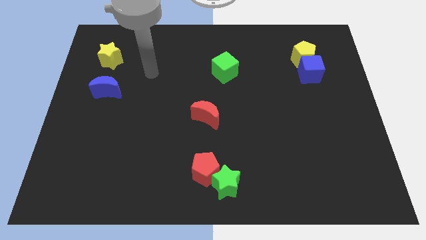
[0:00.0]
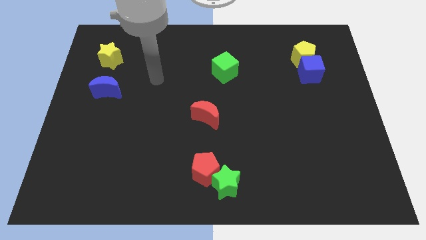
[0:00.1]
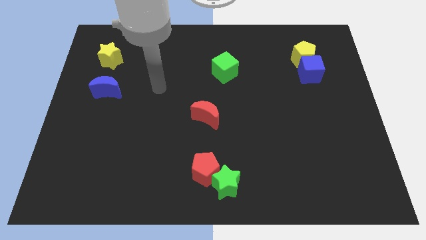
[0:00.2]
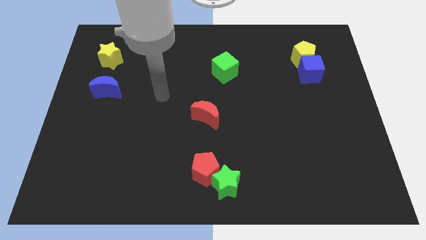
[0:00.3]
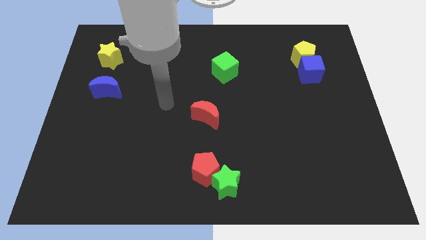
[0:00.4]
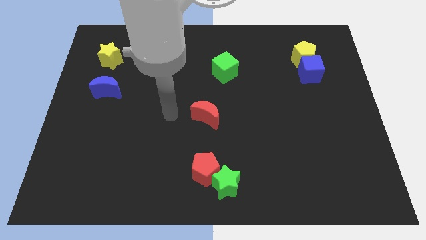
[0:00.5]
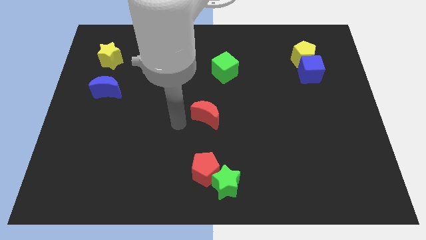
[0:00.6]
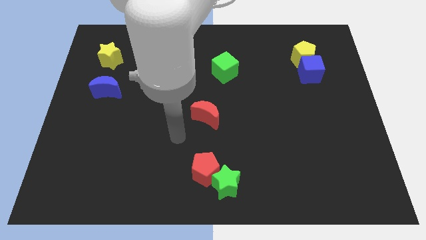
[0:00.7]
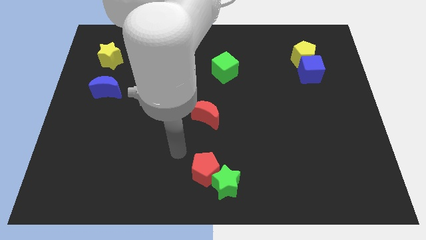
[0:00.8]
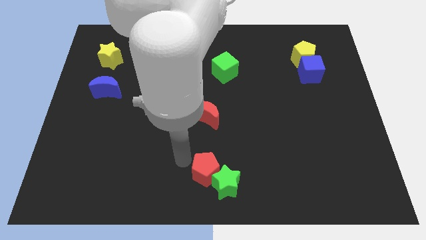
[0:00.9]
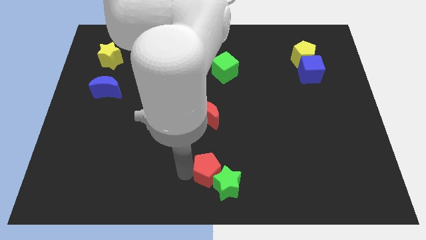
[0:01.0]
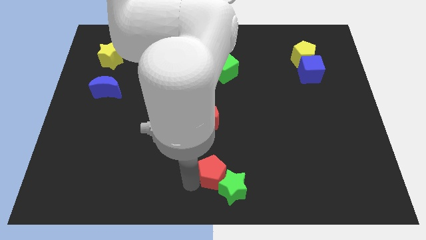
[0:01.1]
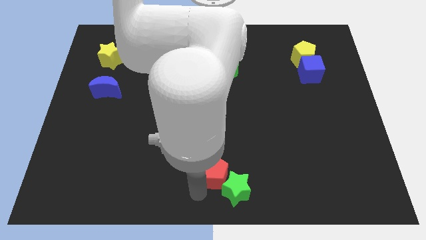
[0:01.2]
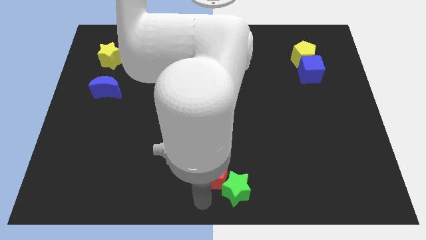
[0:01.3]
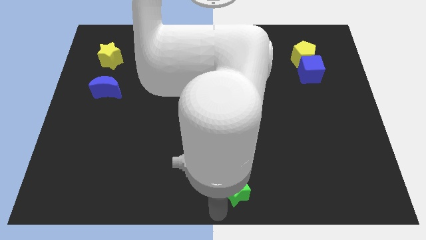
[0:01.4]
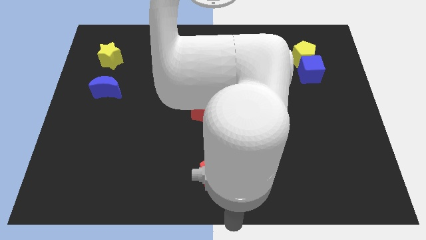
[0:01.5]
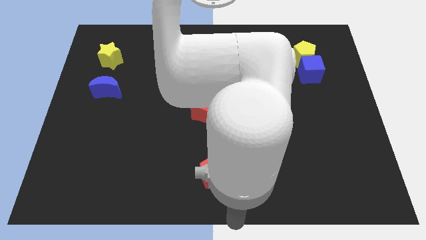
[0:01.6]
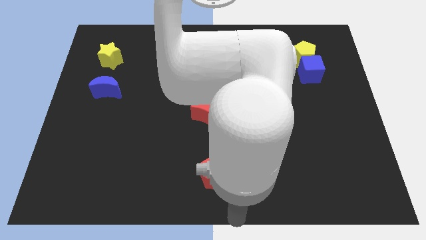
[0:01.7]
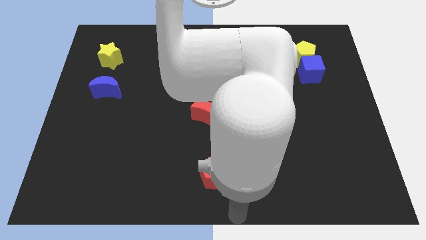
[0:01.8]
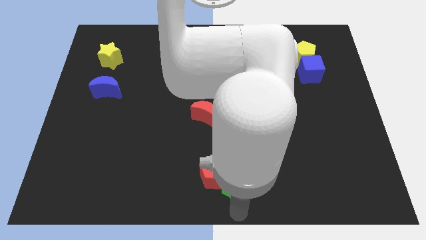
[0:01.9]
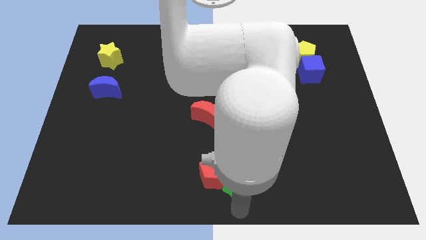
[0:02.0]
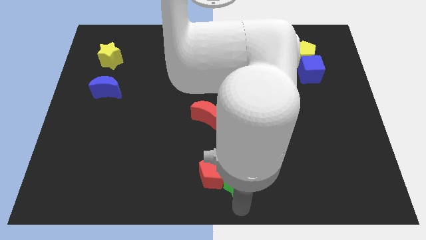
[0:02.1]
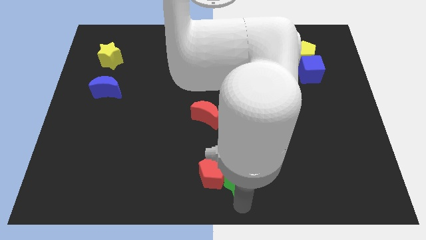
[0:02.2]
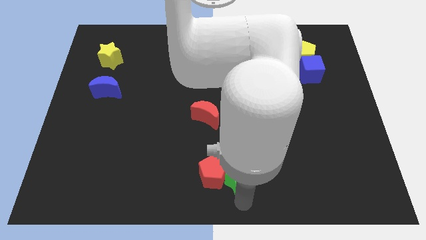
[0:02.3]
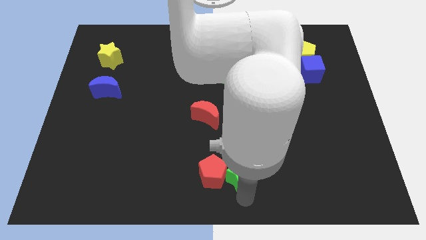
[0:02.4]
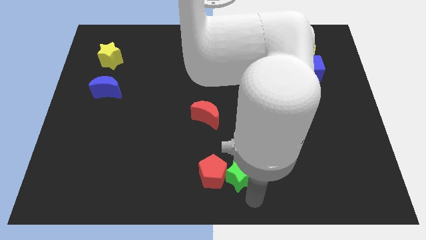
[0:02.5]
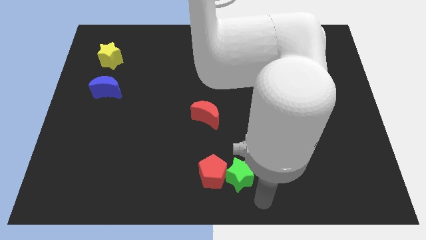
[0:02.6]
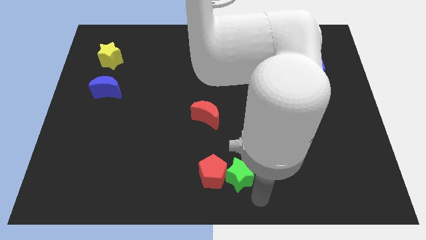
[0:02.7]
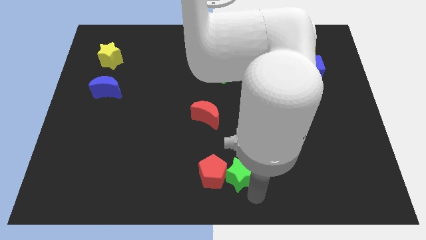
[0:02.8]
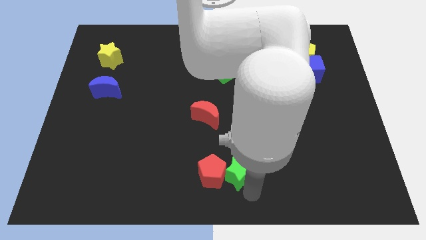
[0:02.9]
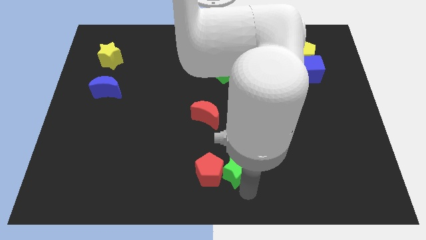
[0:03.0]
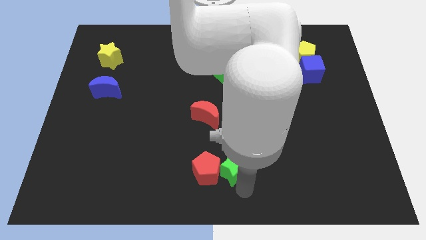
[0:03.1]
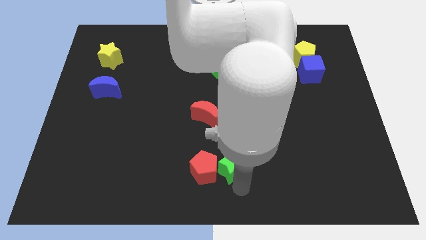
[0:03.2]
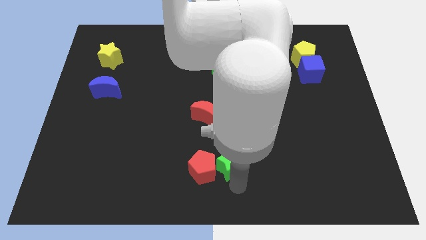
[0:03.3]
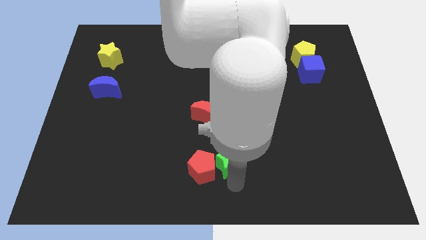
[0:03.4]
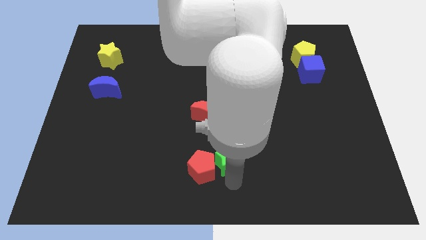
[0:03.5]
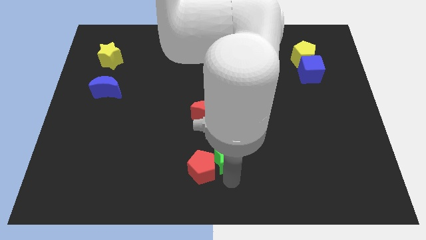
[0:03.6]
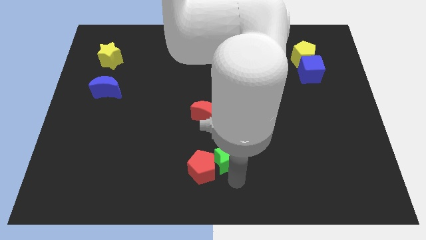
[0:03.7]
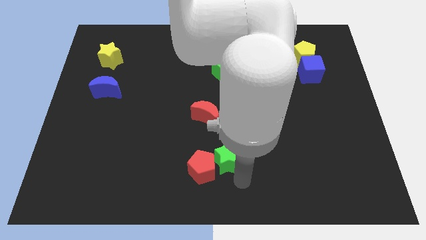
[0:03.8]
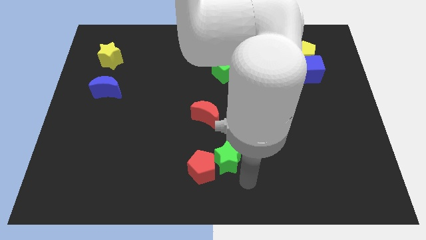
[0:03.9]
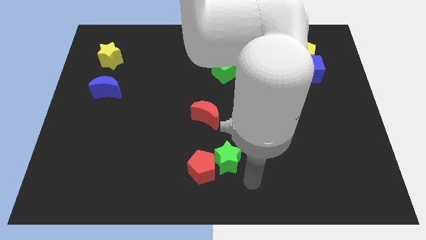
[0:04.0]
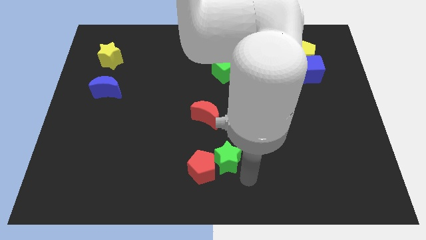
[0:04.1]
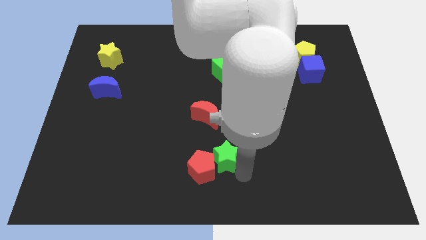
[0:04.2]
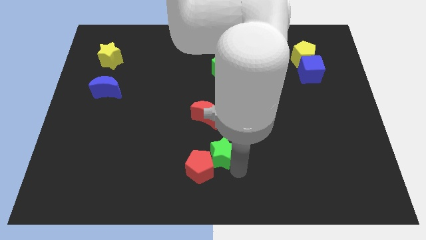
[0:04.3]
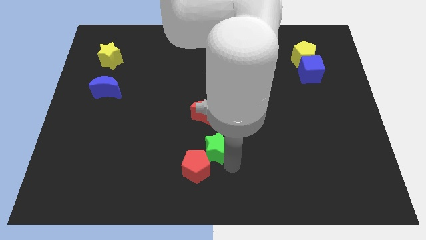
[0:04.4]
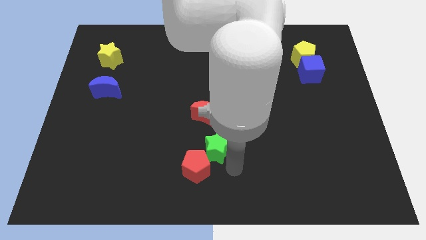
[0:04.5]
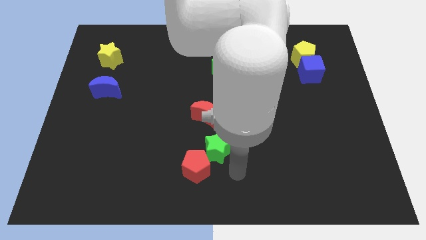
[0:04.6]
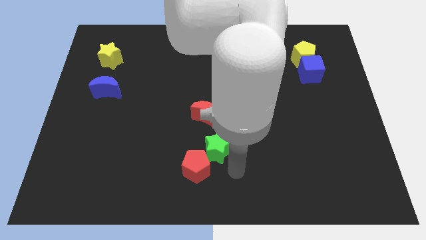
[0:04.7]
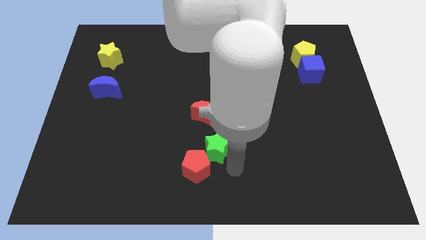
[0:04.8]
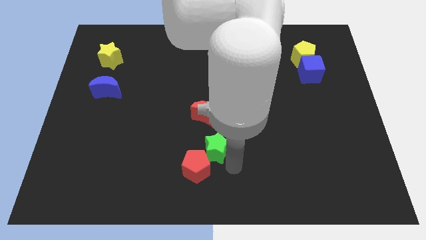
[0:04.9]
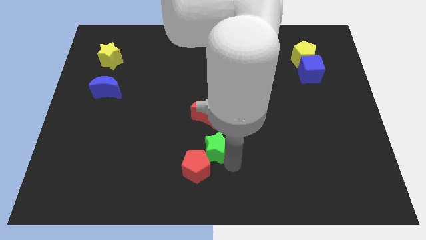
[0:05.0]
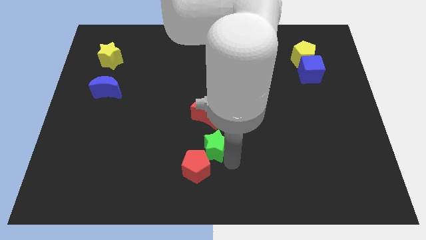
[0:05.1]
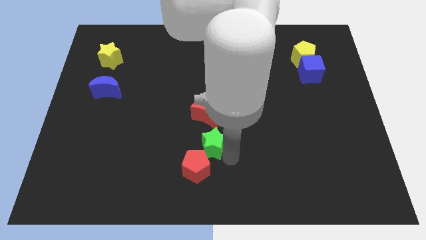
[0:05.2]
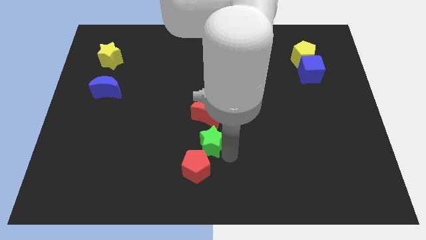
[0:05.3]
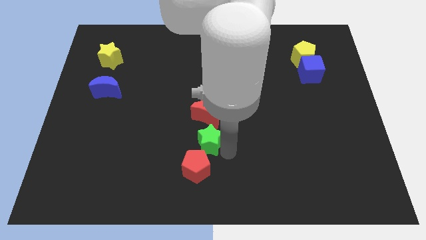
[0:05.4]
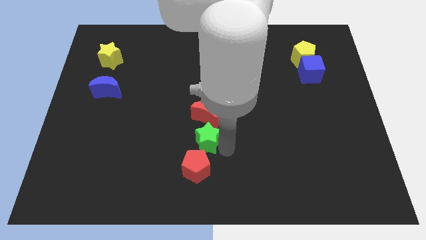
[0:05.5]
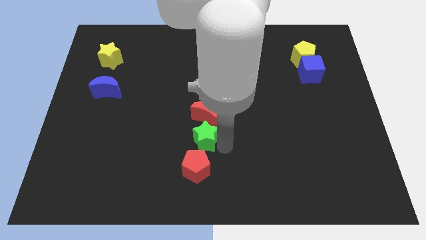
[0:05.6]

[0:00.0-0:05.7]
push the green star to the bottom left side of the red moon
